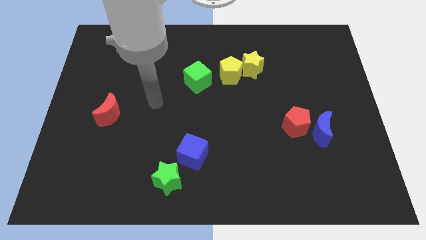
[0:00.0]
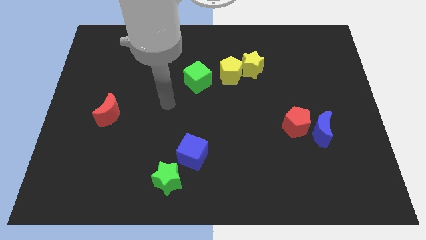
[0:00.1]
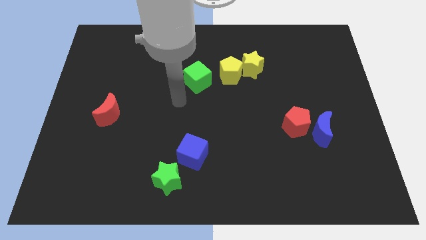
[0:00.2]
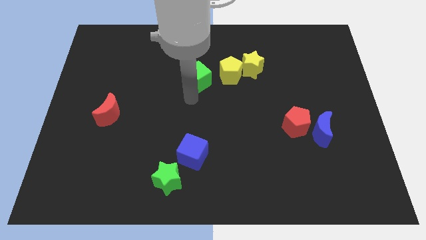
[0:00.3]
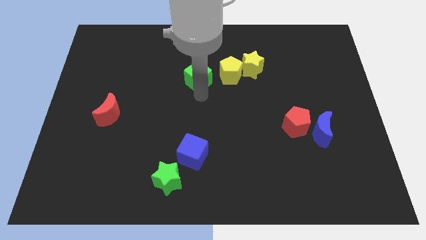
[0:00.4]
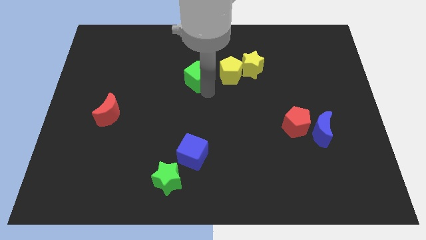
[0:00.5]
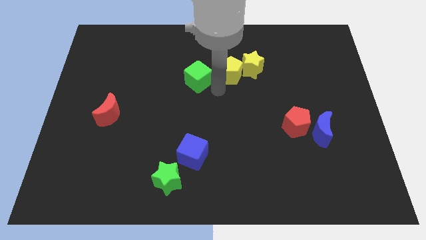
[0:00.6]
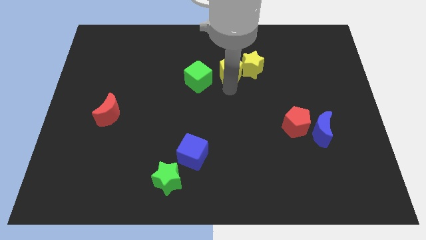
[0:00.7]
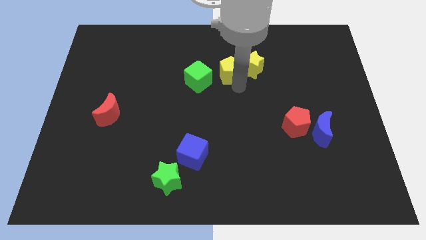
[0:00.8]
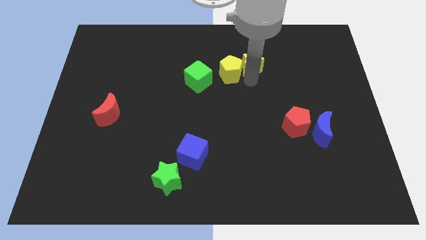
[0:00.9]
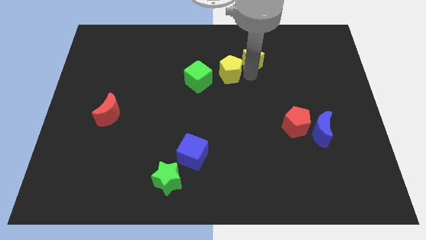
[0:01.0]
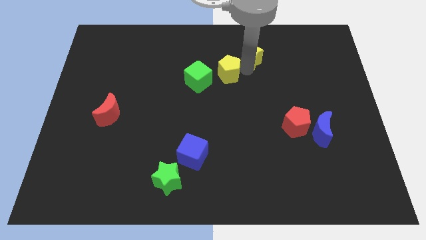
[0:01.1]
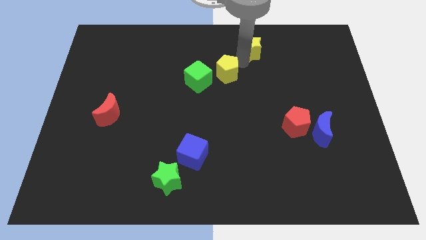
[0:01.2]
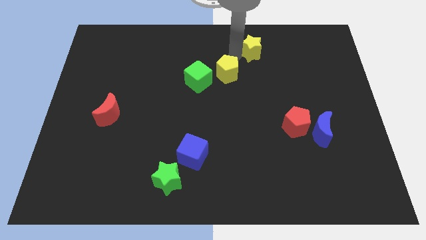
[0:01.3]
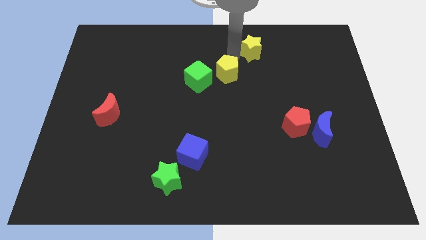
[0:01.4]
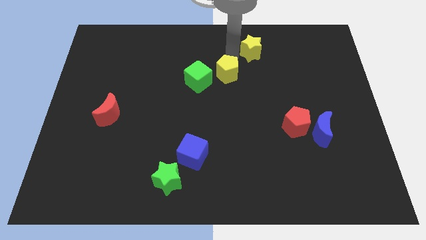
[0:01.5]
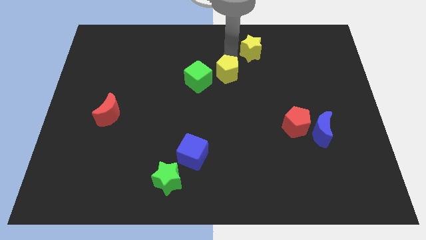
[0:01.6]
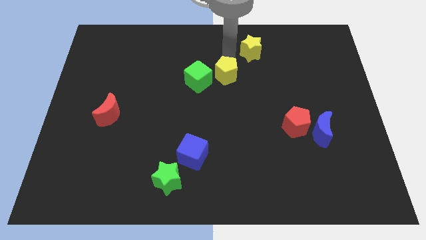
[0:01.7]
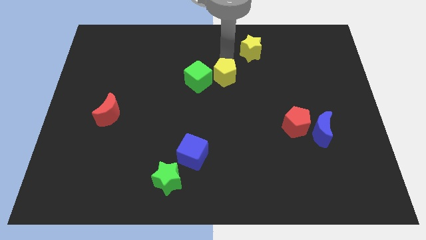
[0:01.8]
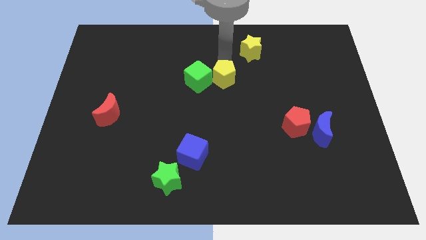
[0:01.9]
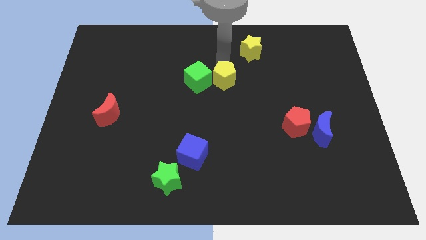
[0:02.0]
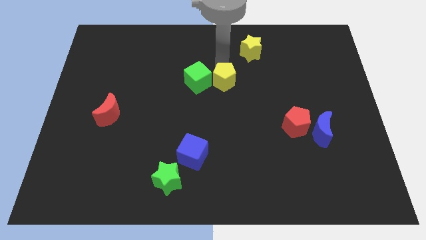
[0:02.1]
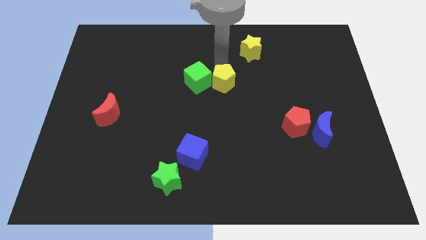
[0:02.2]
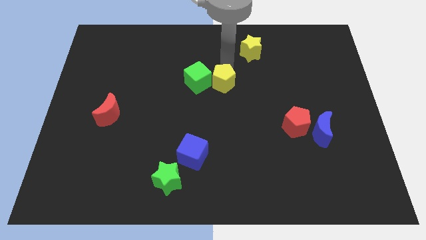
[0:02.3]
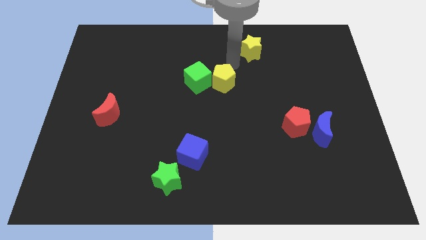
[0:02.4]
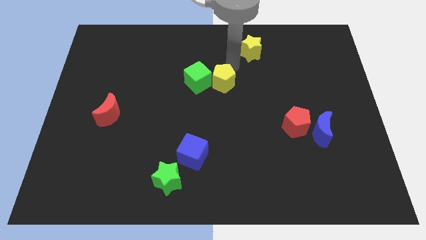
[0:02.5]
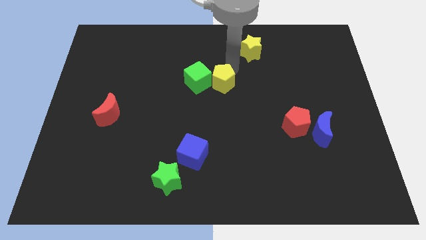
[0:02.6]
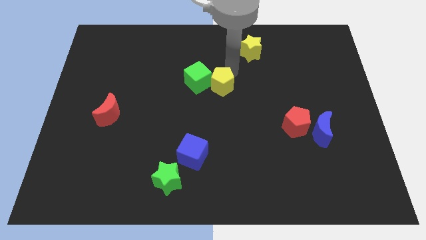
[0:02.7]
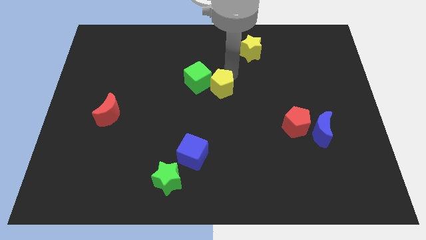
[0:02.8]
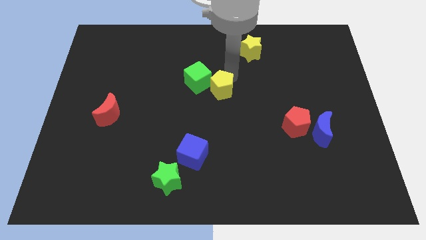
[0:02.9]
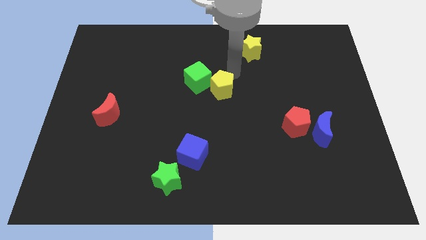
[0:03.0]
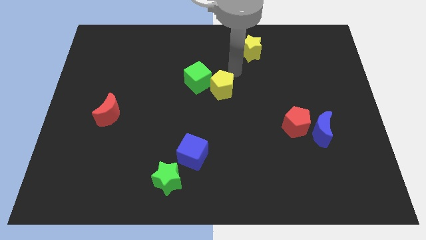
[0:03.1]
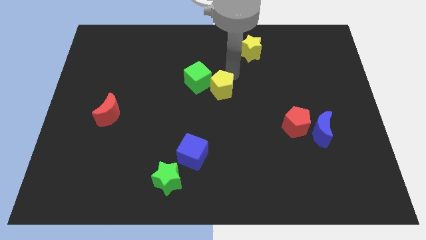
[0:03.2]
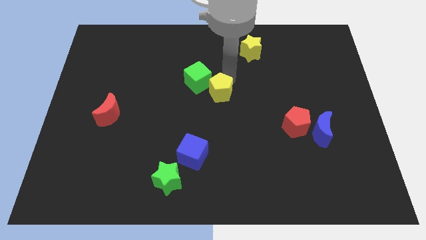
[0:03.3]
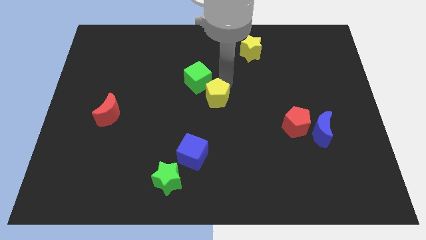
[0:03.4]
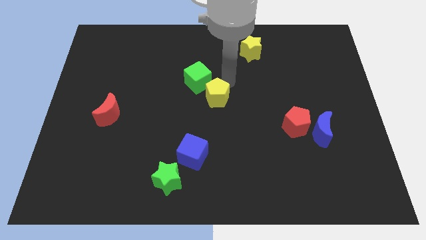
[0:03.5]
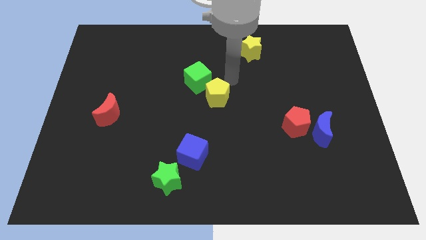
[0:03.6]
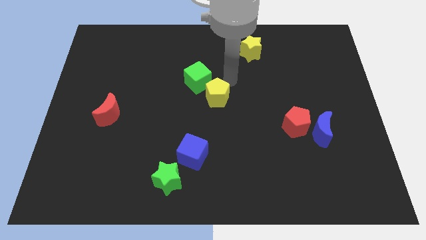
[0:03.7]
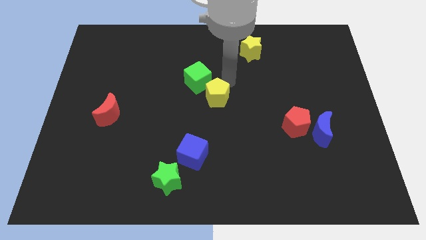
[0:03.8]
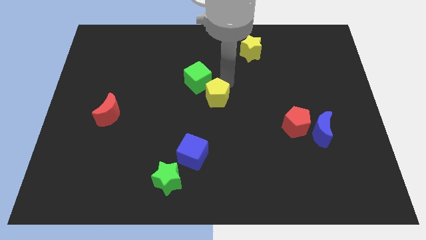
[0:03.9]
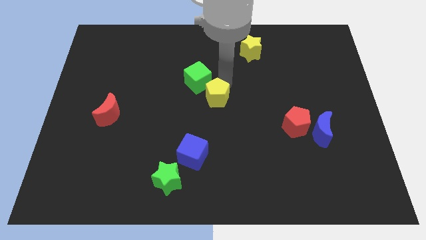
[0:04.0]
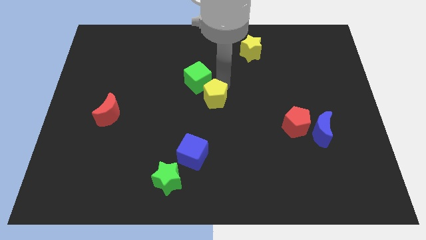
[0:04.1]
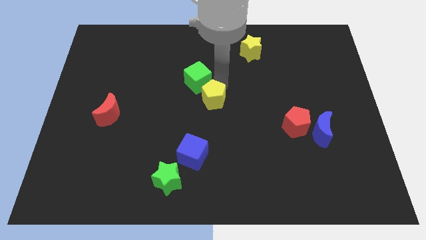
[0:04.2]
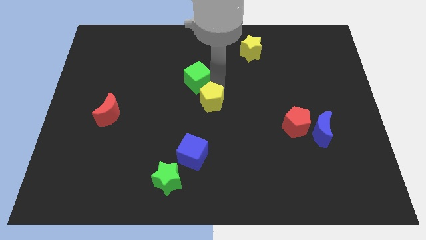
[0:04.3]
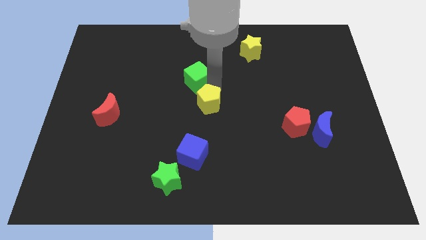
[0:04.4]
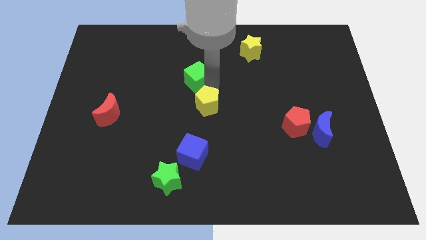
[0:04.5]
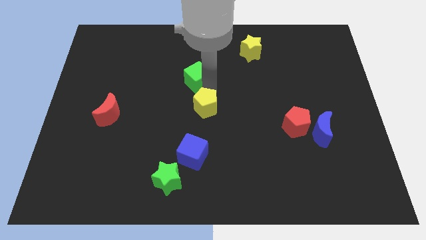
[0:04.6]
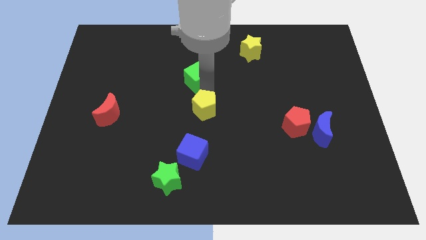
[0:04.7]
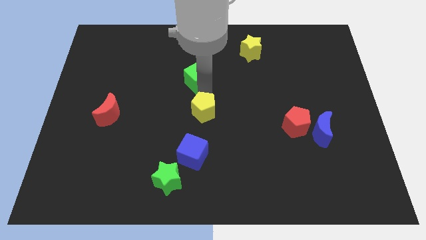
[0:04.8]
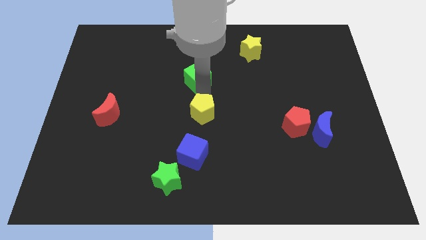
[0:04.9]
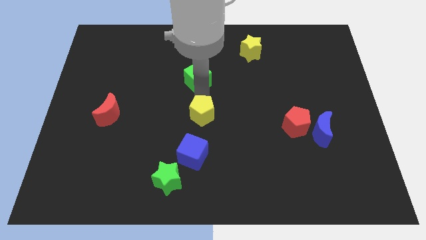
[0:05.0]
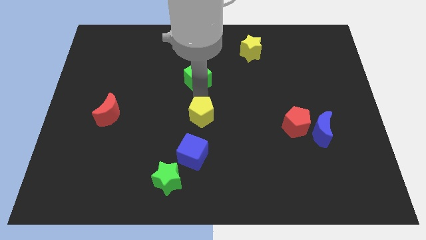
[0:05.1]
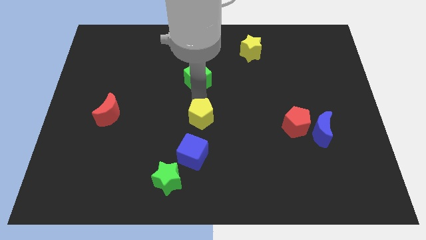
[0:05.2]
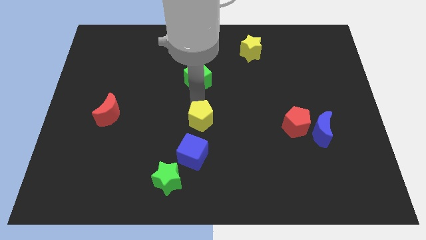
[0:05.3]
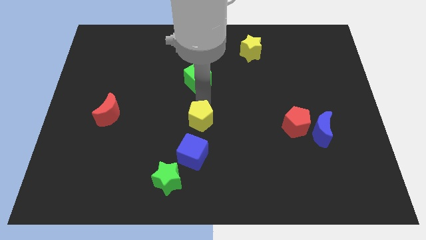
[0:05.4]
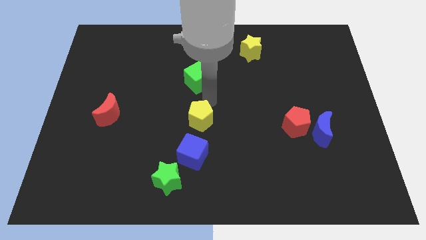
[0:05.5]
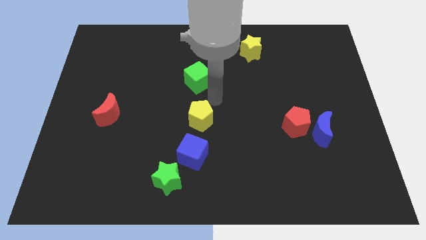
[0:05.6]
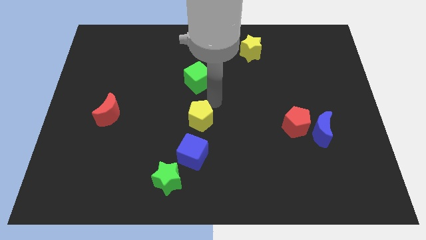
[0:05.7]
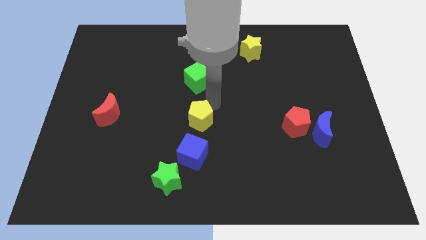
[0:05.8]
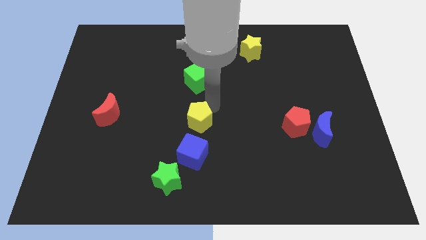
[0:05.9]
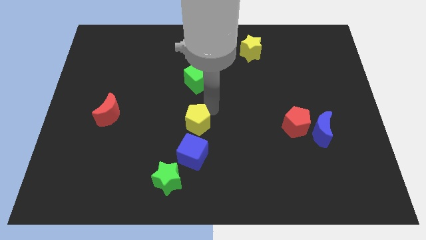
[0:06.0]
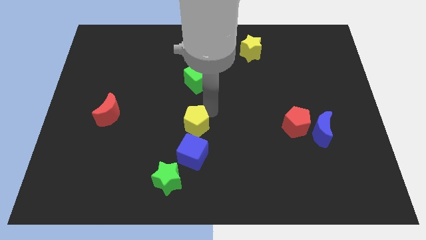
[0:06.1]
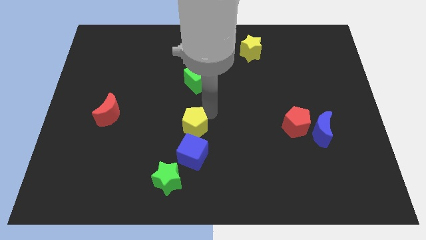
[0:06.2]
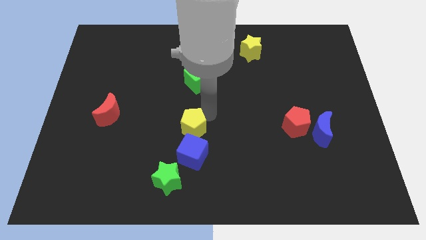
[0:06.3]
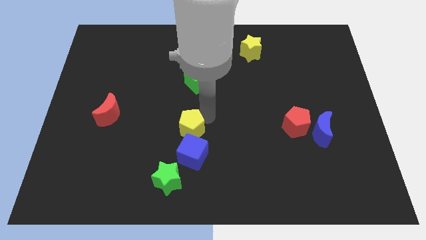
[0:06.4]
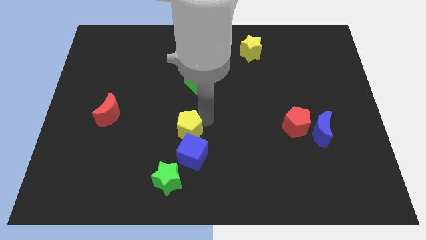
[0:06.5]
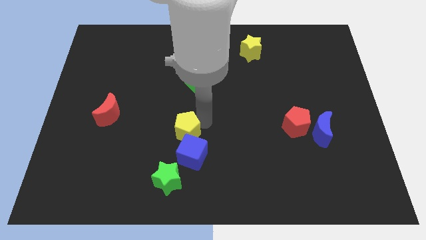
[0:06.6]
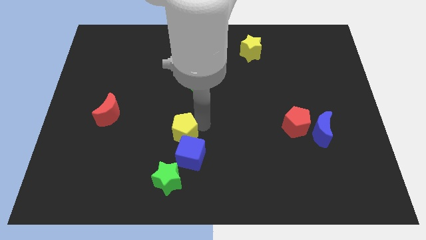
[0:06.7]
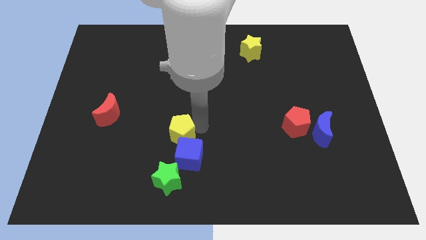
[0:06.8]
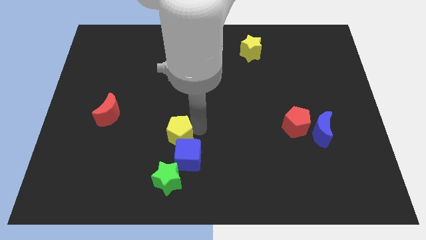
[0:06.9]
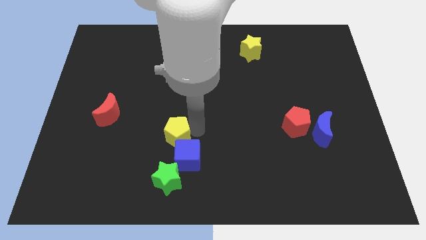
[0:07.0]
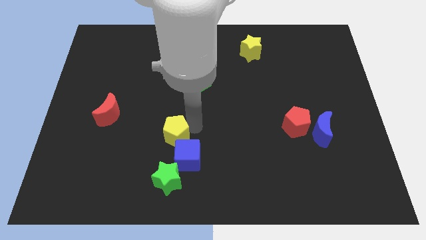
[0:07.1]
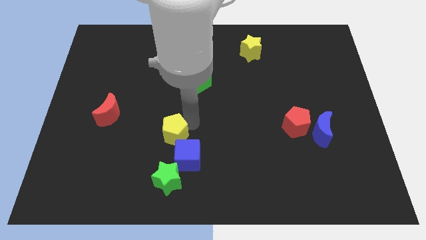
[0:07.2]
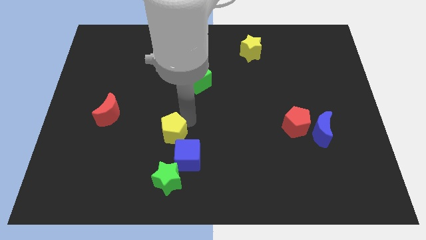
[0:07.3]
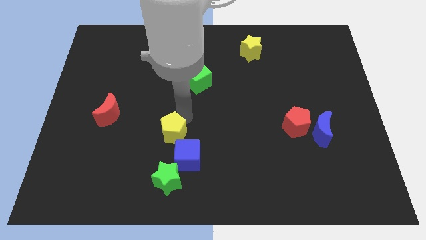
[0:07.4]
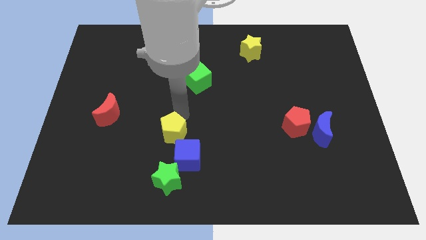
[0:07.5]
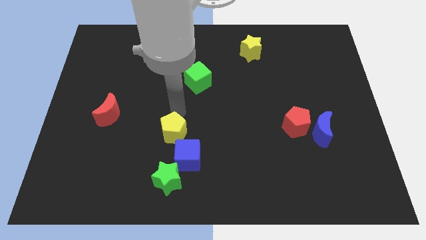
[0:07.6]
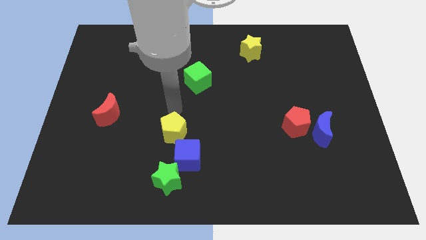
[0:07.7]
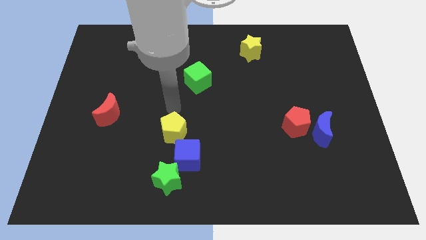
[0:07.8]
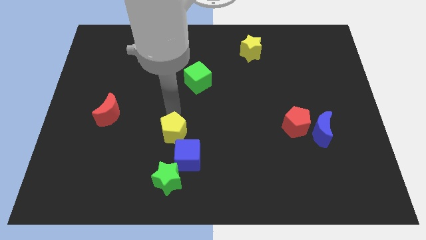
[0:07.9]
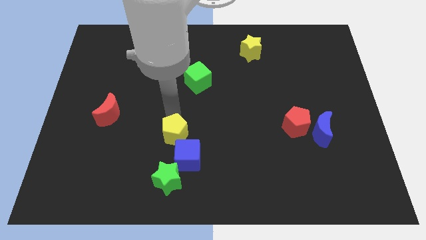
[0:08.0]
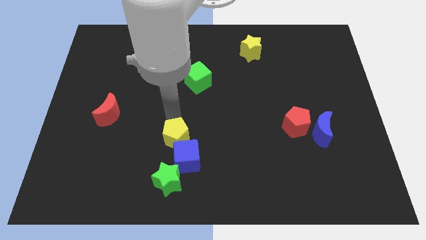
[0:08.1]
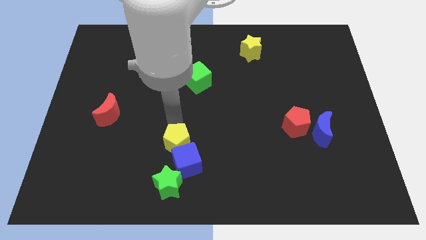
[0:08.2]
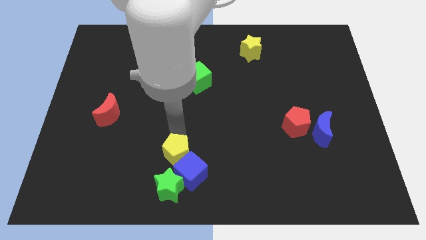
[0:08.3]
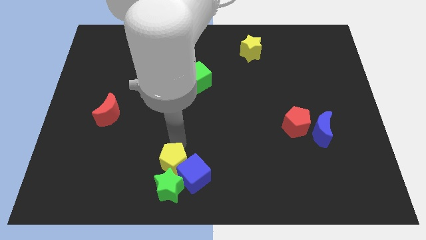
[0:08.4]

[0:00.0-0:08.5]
push the yellow pentagon next to the green star
